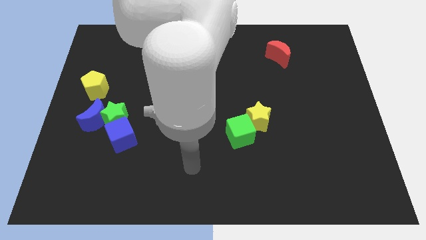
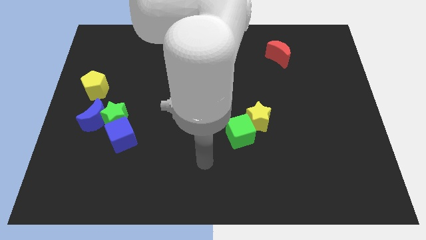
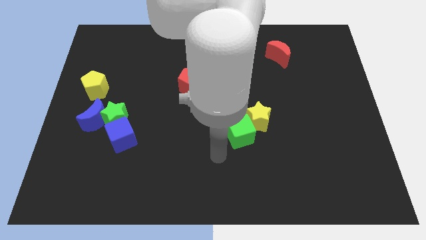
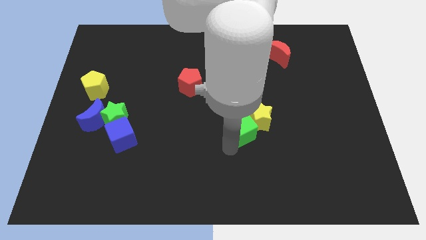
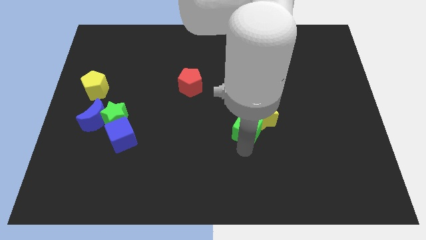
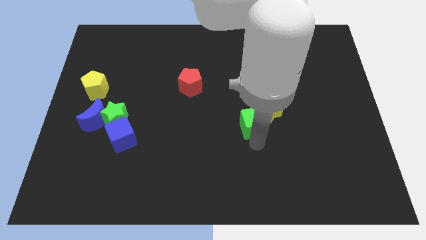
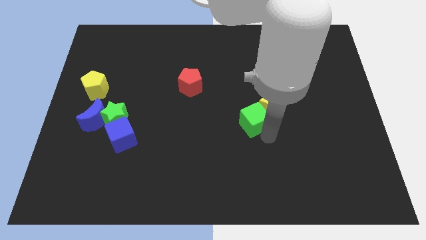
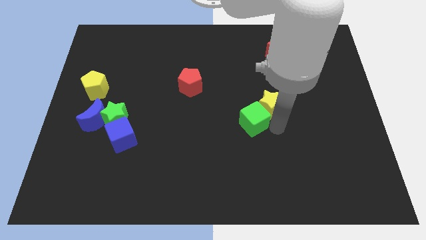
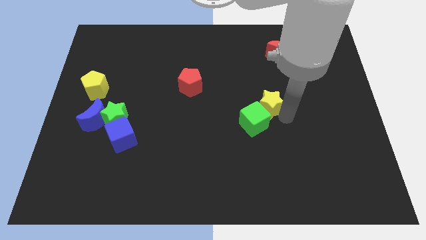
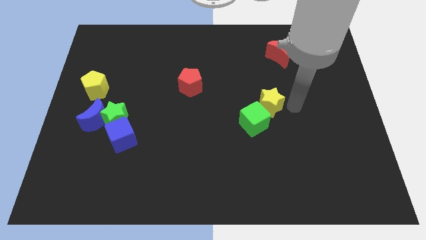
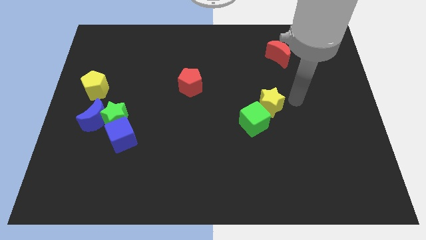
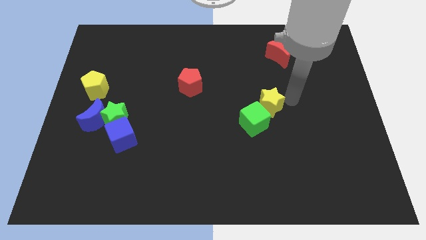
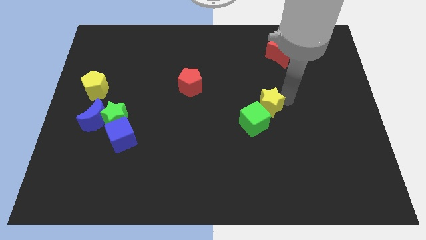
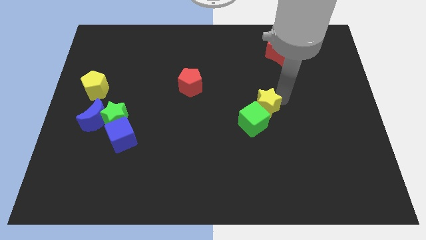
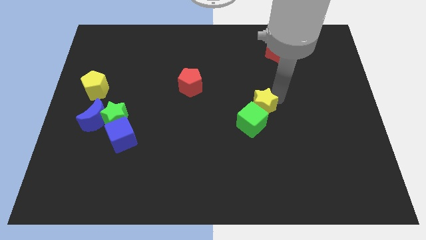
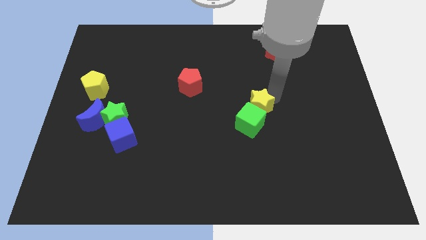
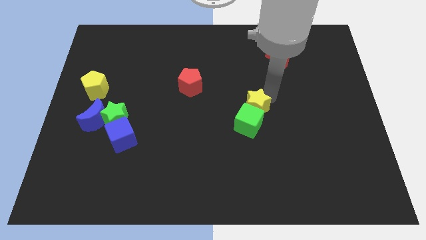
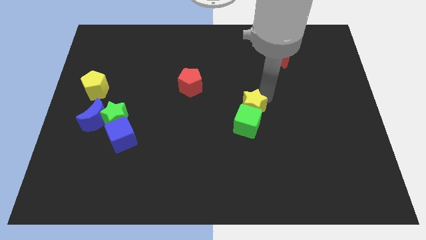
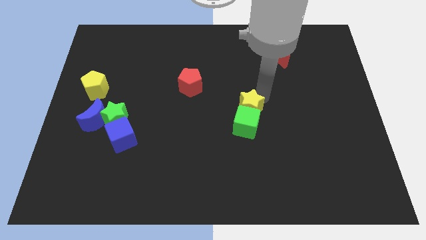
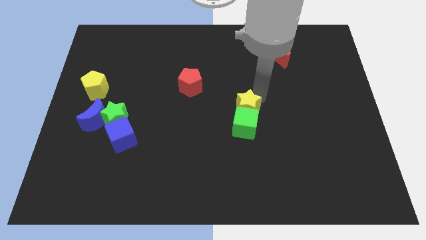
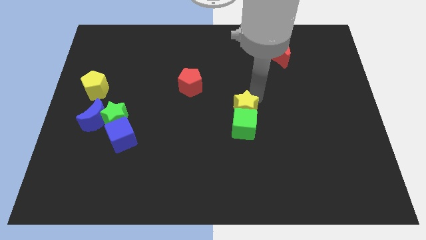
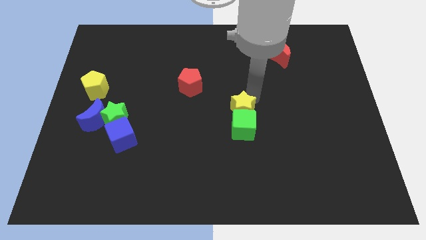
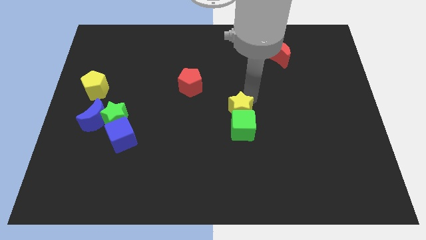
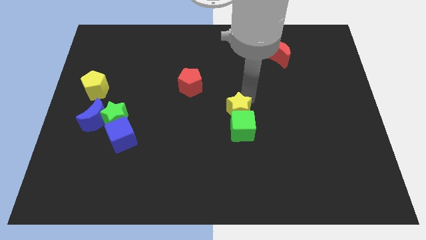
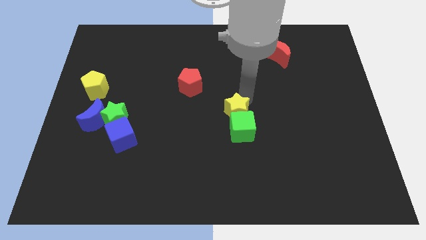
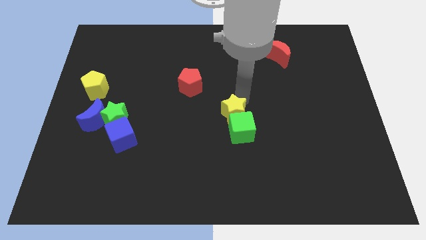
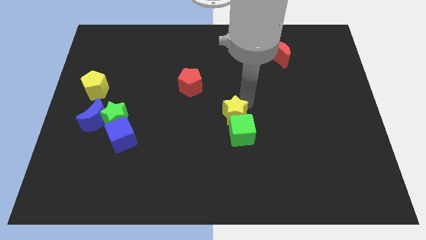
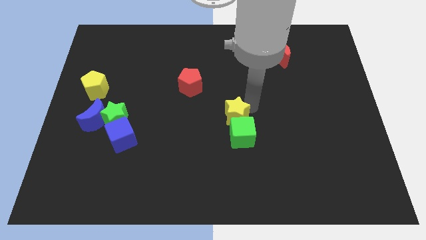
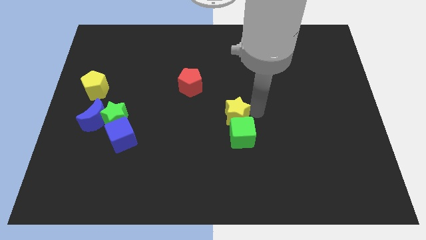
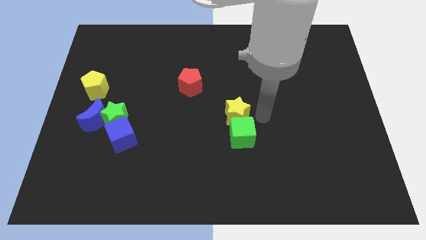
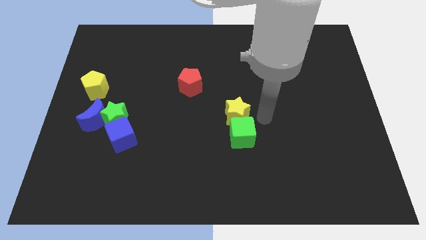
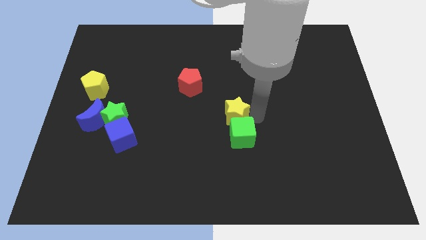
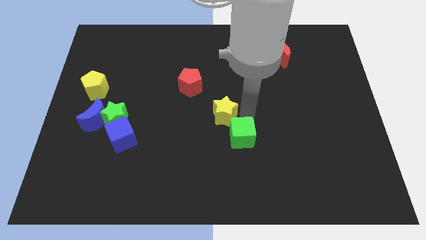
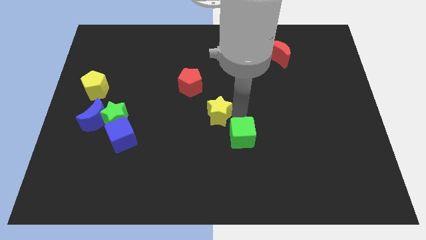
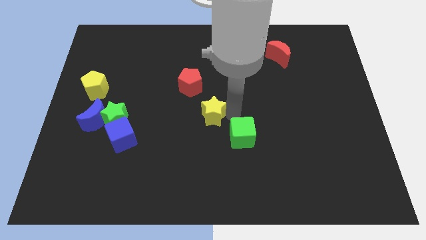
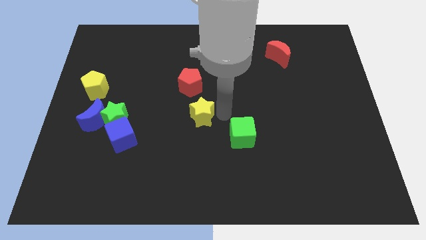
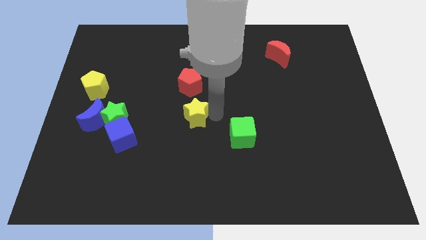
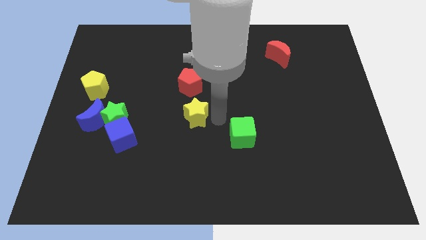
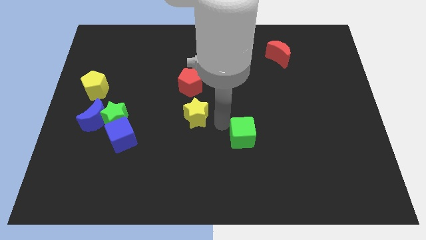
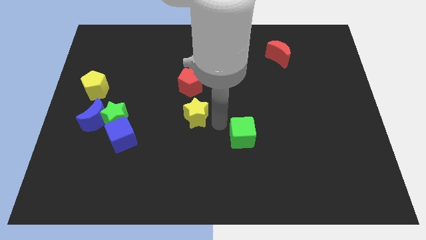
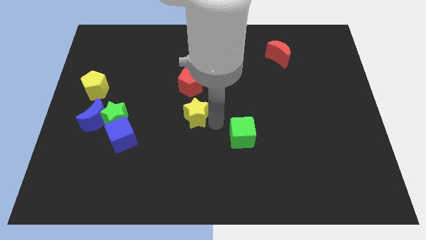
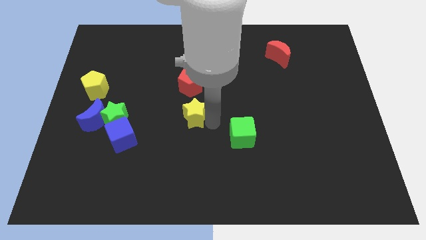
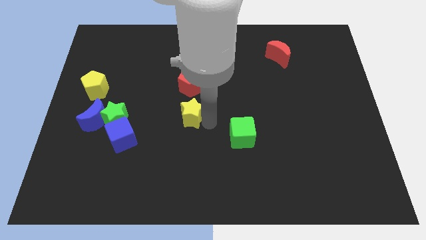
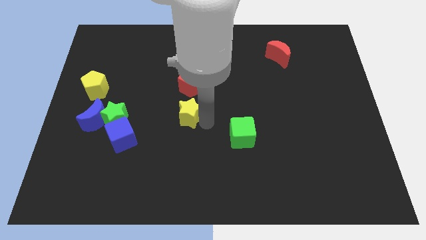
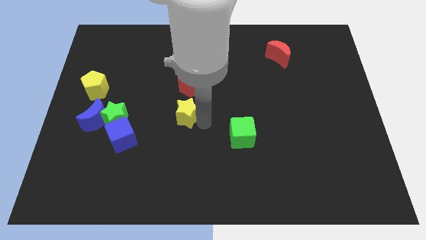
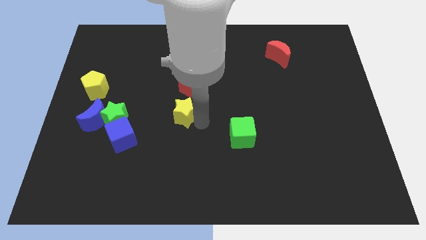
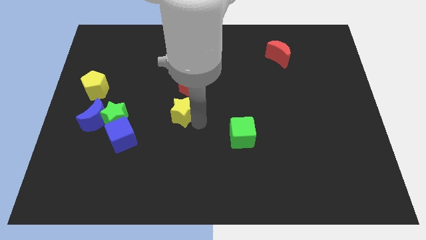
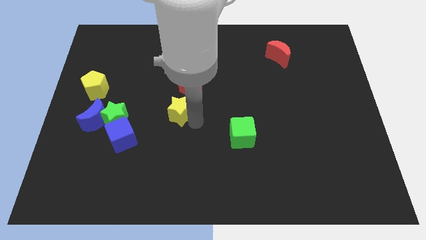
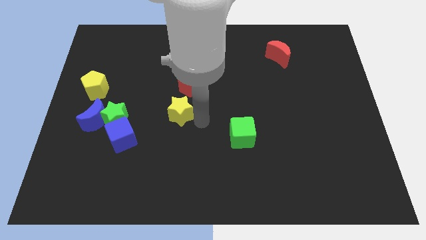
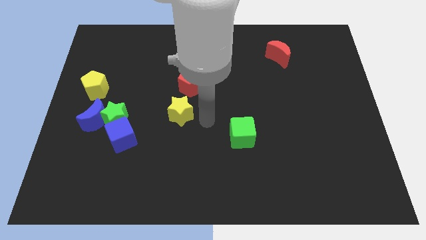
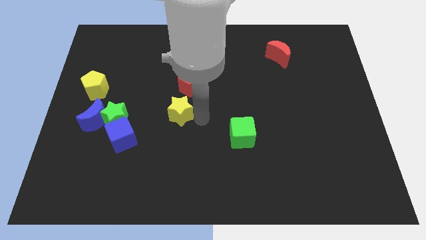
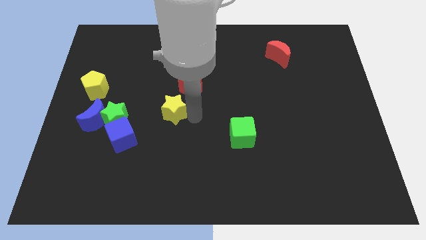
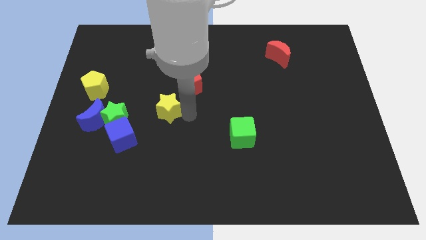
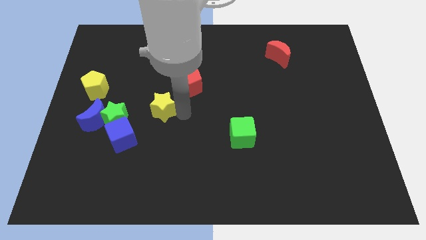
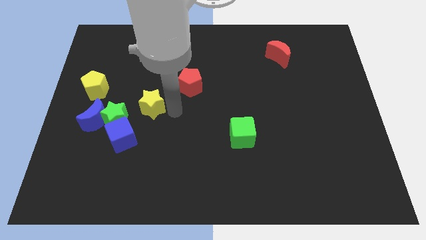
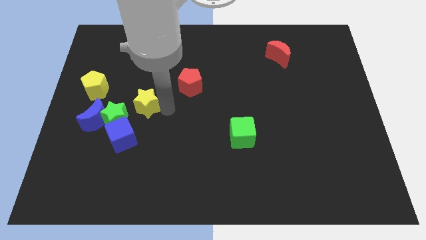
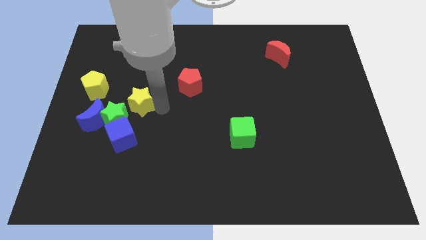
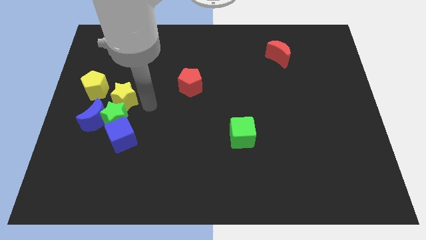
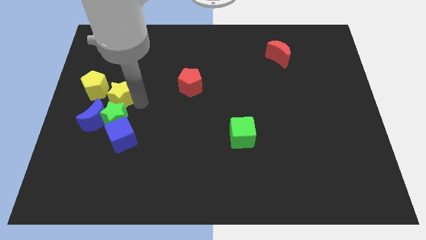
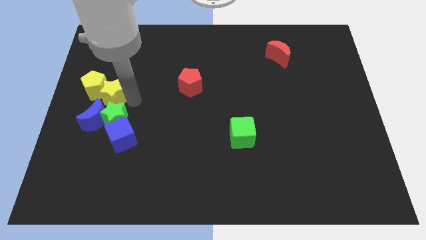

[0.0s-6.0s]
put the yellow star close to the yellow pentagon
